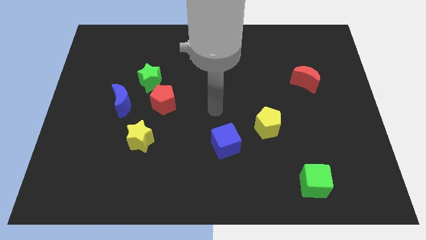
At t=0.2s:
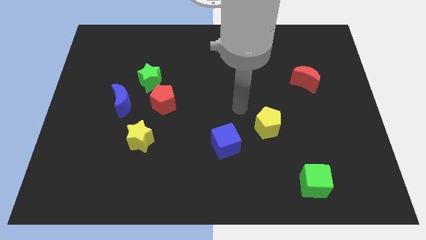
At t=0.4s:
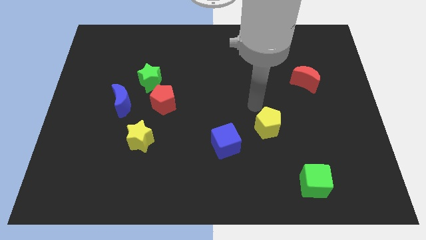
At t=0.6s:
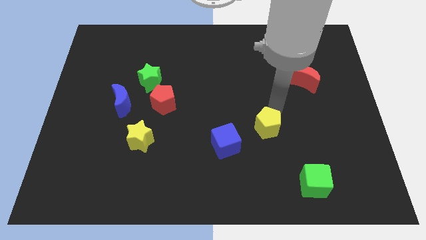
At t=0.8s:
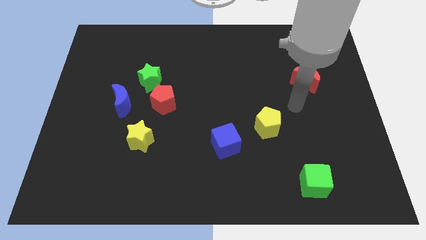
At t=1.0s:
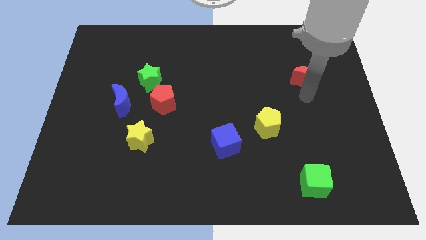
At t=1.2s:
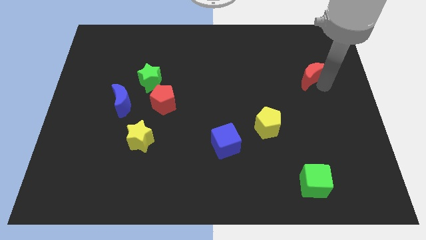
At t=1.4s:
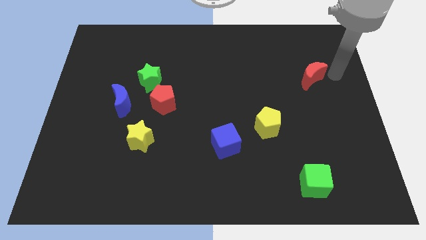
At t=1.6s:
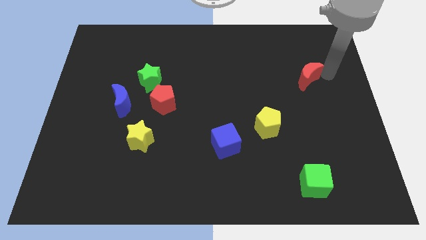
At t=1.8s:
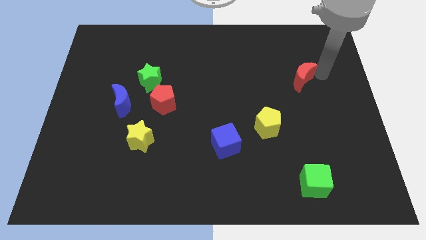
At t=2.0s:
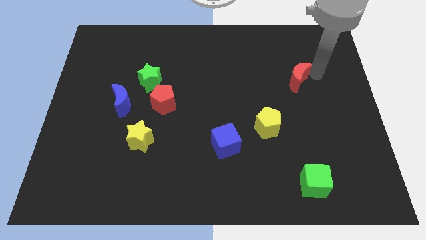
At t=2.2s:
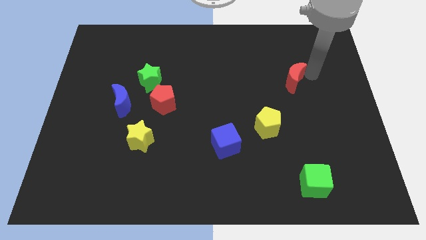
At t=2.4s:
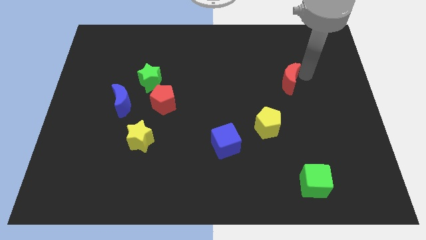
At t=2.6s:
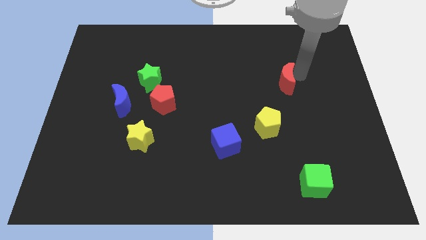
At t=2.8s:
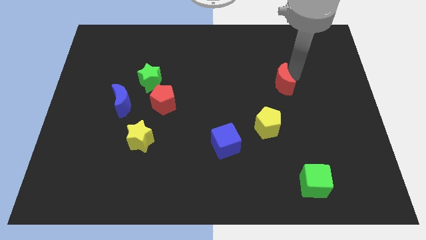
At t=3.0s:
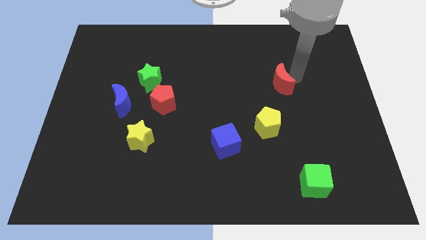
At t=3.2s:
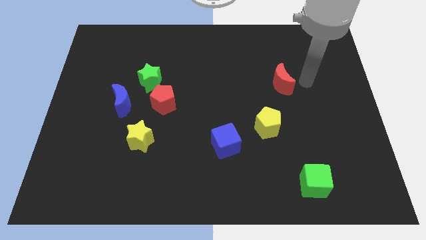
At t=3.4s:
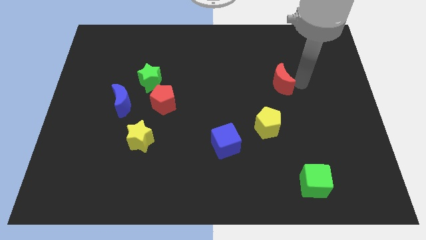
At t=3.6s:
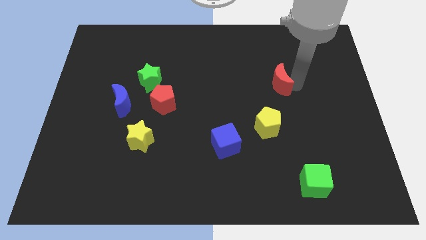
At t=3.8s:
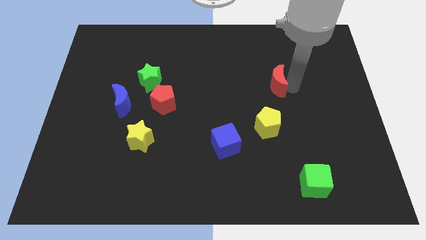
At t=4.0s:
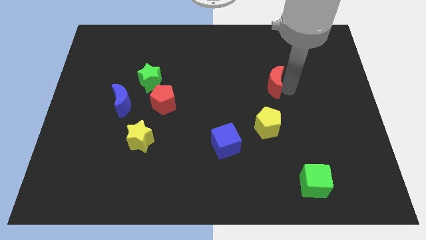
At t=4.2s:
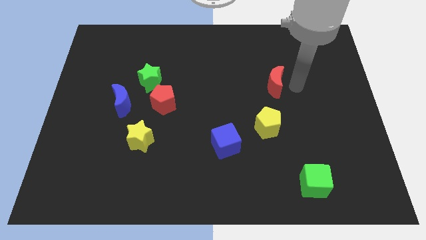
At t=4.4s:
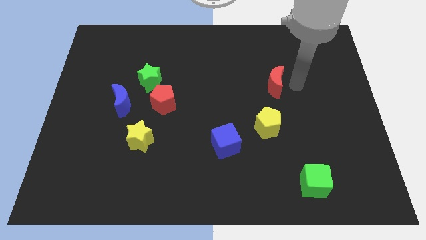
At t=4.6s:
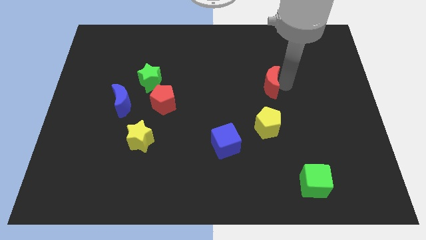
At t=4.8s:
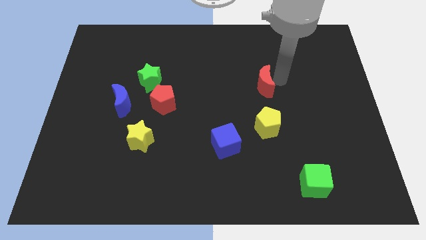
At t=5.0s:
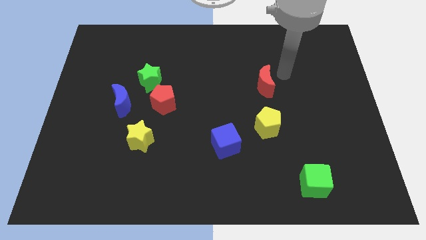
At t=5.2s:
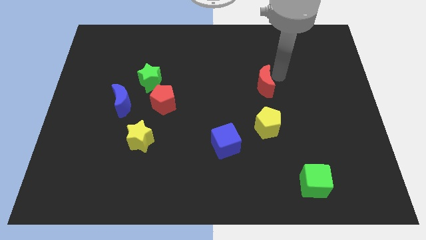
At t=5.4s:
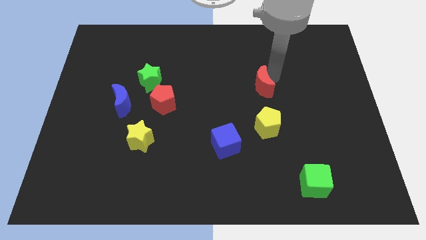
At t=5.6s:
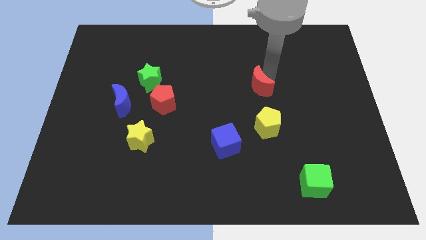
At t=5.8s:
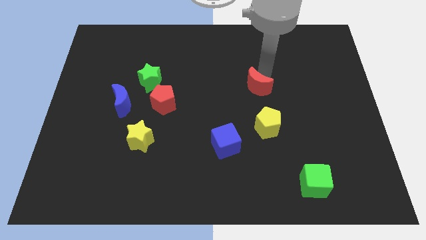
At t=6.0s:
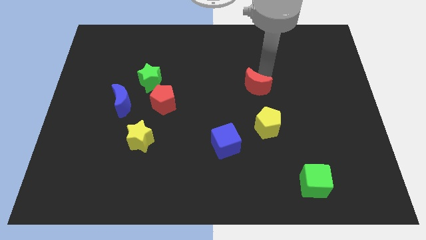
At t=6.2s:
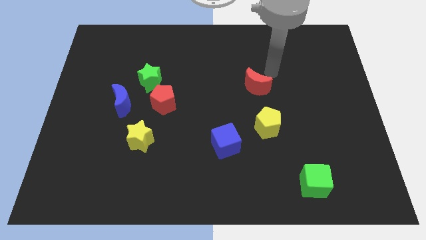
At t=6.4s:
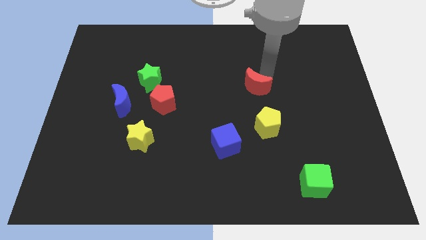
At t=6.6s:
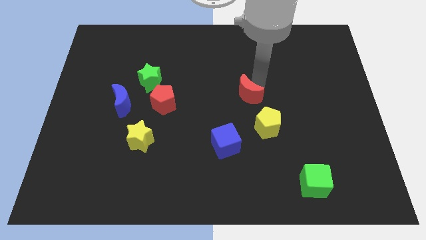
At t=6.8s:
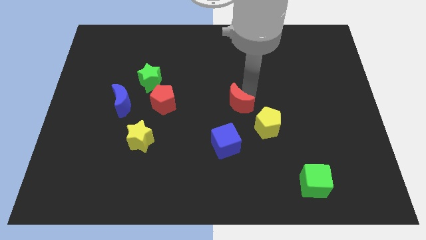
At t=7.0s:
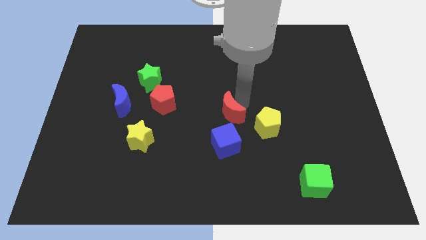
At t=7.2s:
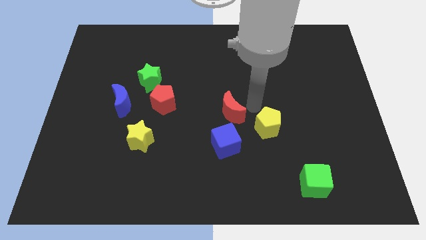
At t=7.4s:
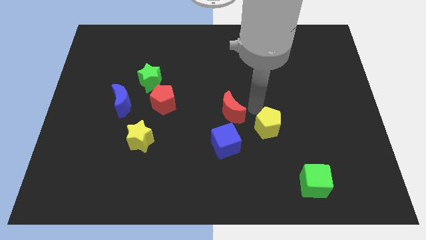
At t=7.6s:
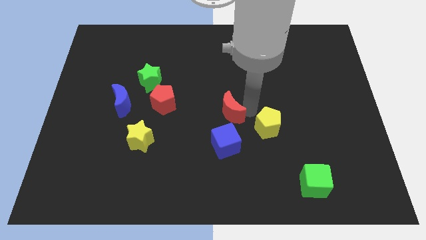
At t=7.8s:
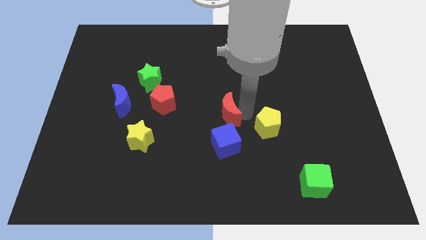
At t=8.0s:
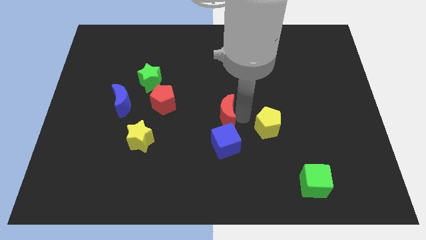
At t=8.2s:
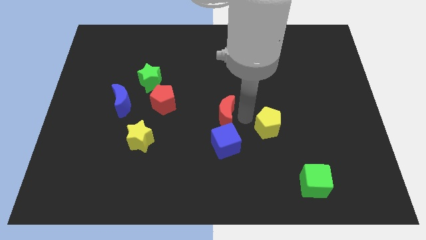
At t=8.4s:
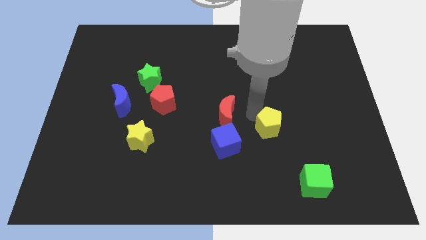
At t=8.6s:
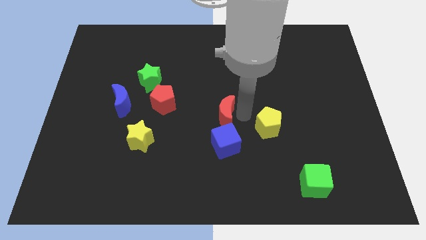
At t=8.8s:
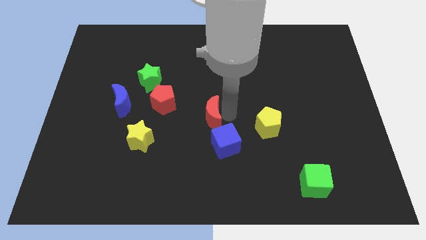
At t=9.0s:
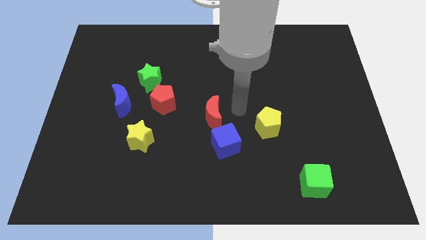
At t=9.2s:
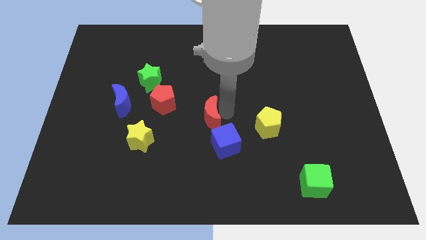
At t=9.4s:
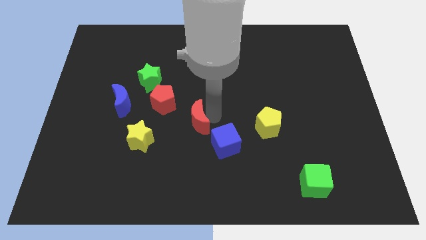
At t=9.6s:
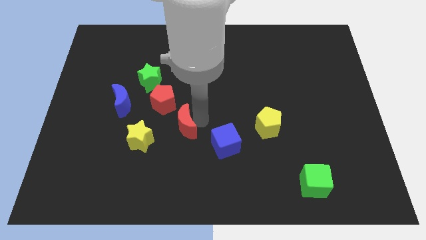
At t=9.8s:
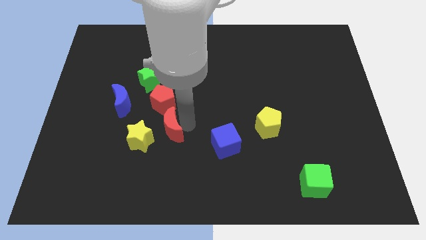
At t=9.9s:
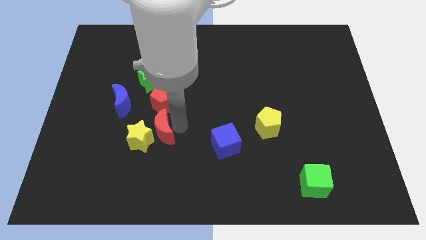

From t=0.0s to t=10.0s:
slide the red moon close to the yellow star

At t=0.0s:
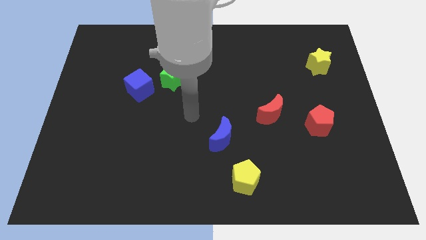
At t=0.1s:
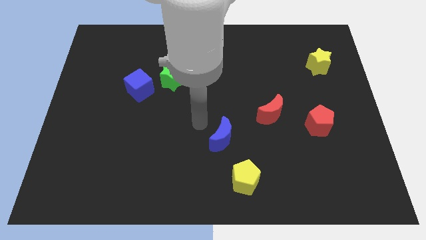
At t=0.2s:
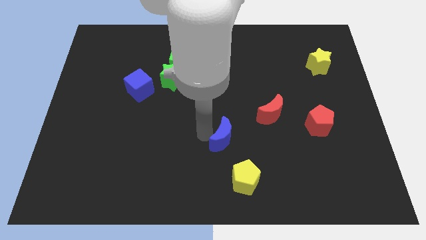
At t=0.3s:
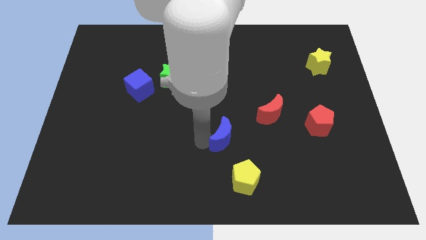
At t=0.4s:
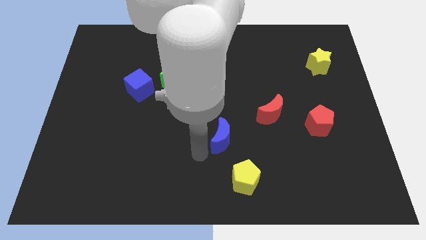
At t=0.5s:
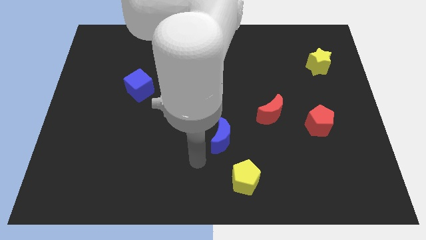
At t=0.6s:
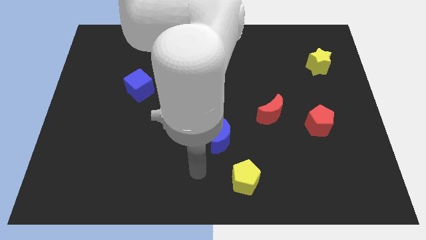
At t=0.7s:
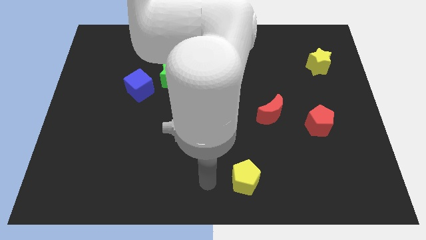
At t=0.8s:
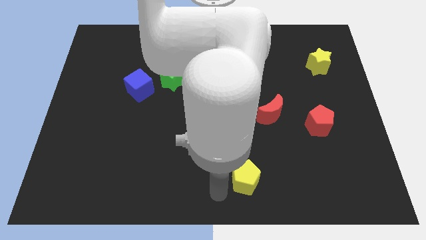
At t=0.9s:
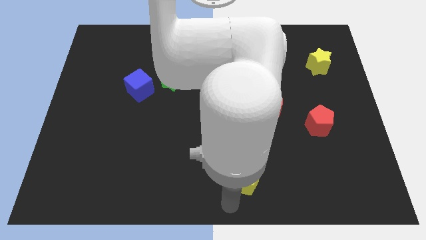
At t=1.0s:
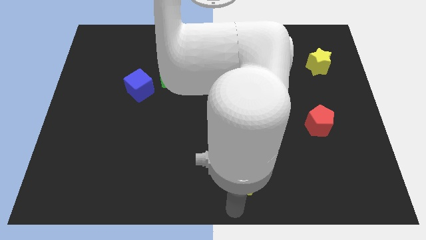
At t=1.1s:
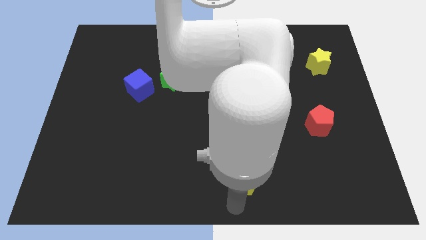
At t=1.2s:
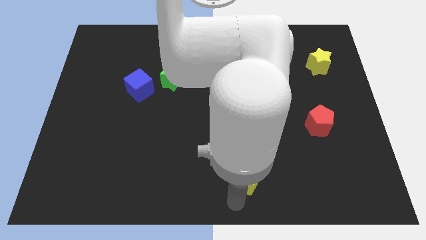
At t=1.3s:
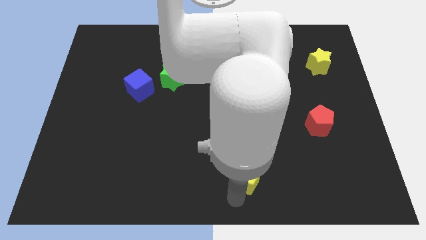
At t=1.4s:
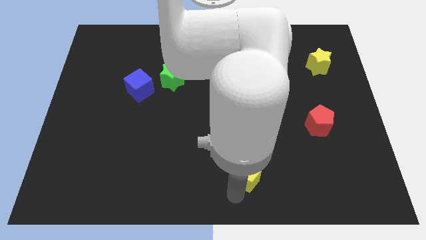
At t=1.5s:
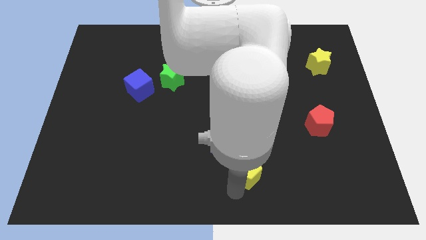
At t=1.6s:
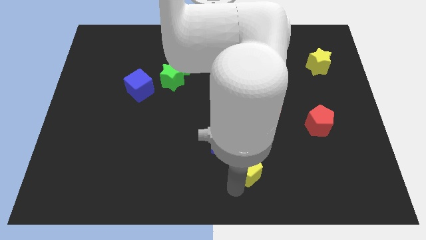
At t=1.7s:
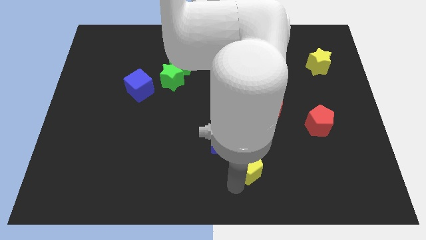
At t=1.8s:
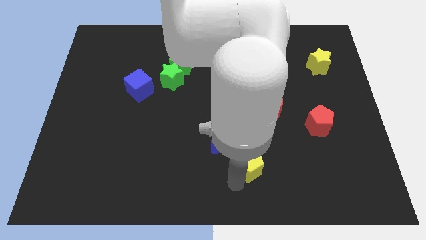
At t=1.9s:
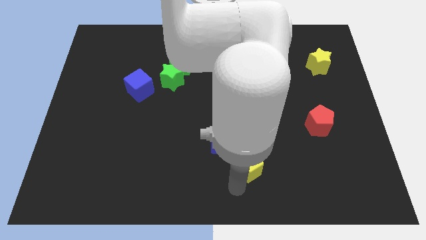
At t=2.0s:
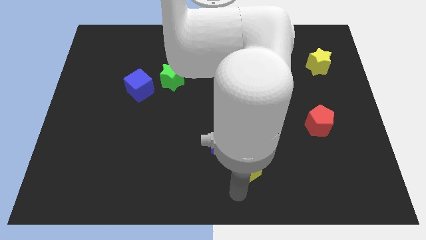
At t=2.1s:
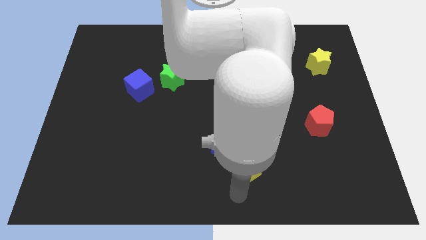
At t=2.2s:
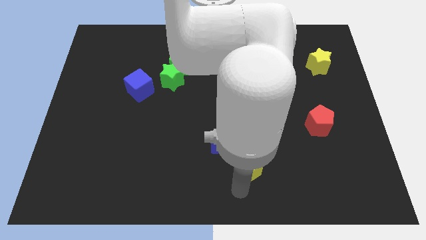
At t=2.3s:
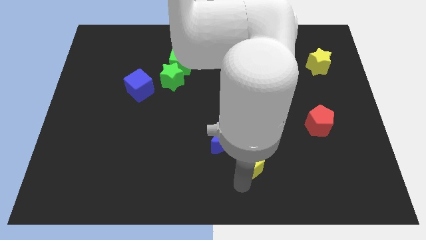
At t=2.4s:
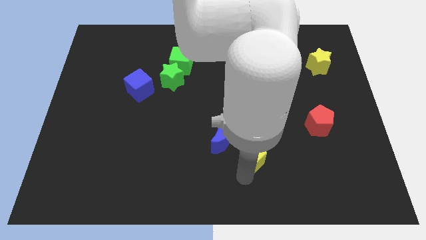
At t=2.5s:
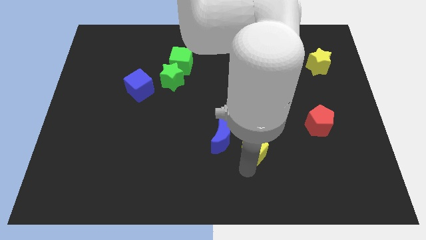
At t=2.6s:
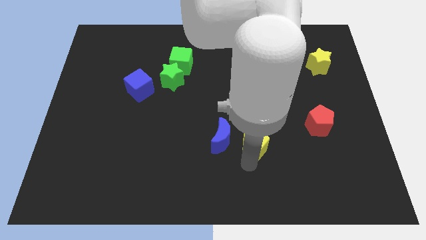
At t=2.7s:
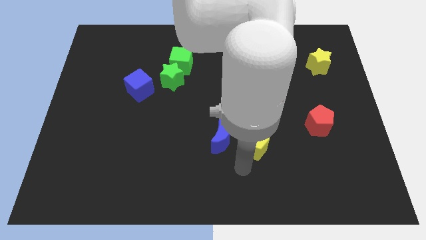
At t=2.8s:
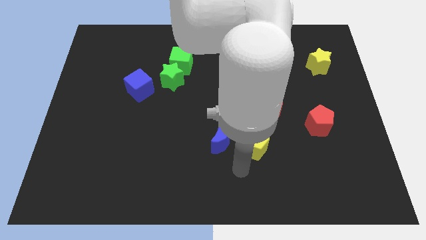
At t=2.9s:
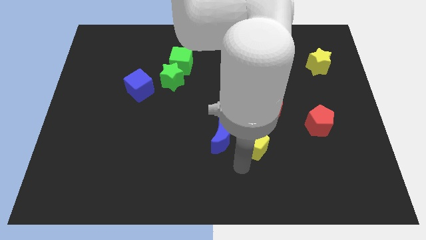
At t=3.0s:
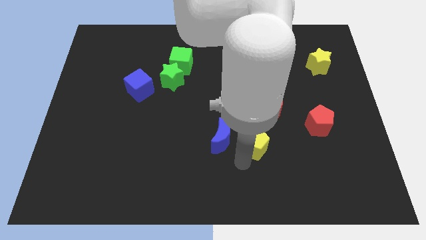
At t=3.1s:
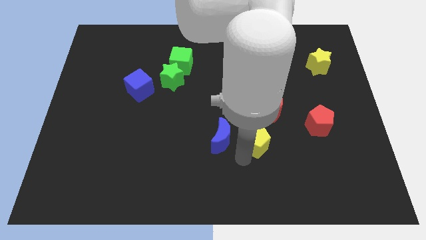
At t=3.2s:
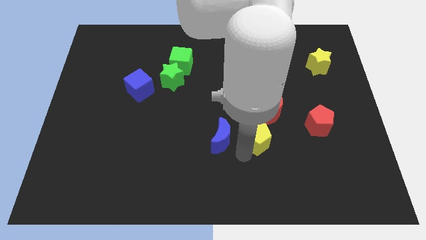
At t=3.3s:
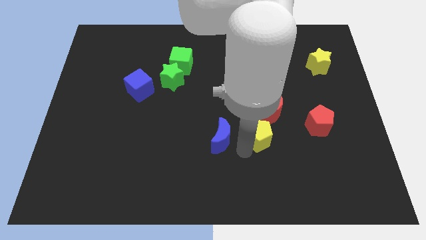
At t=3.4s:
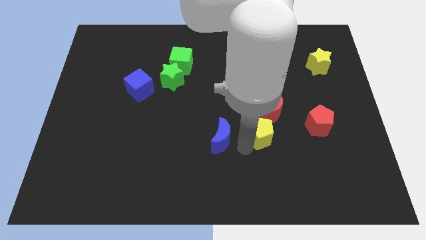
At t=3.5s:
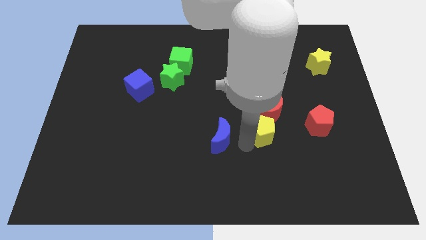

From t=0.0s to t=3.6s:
slide the yellow pentagon to the red moon
